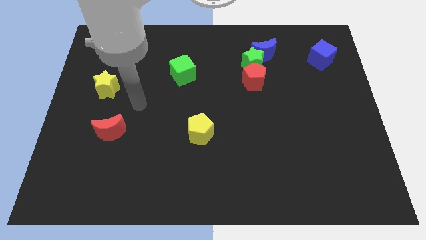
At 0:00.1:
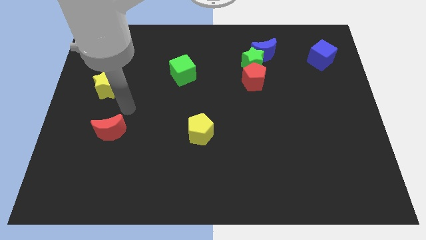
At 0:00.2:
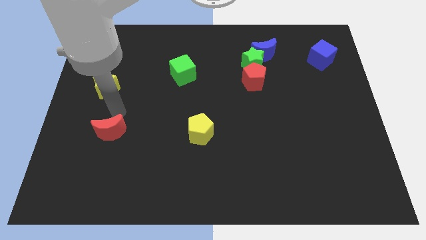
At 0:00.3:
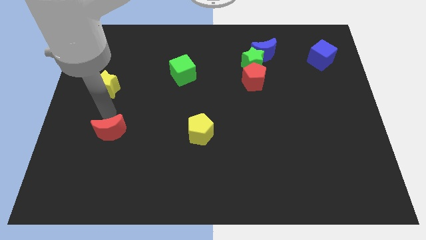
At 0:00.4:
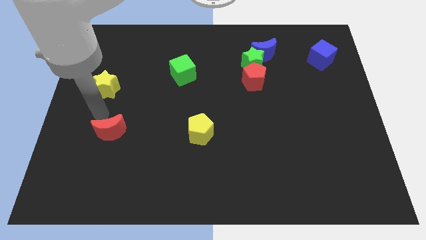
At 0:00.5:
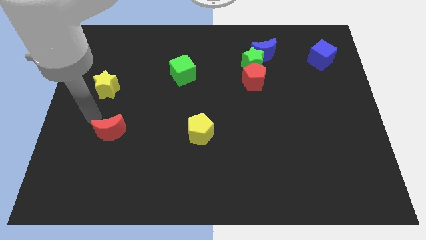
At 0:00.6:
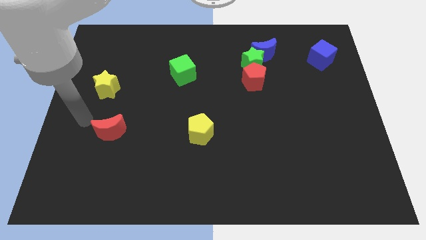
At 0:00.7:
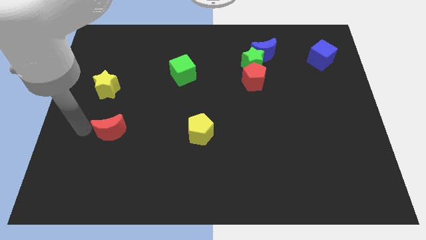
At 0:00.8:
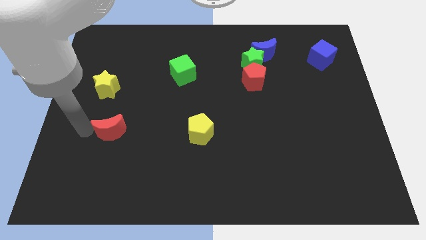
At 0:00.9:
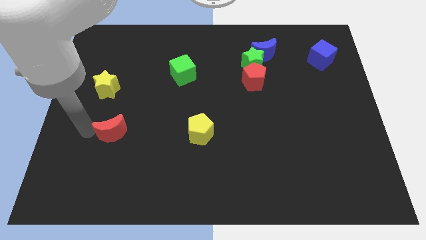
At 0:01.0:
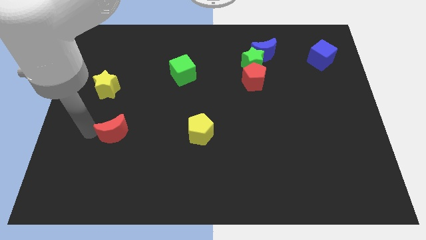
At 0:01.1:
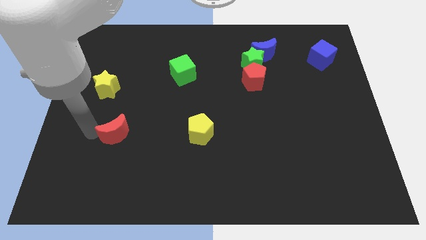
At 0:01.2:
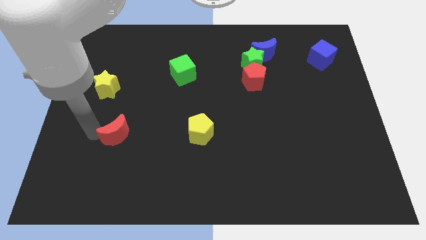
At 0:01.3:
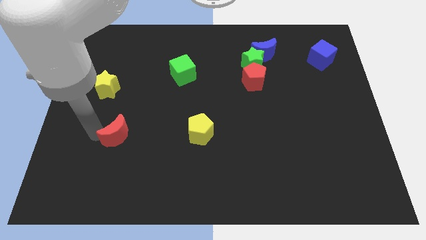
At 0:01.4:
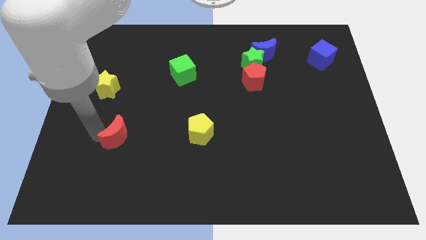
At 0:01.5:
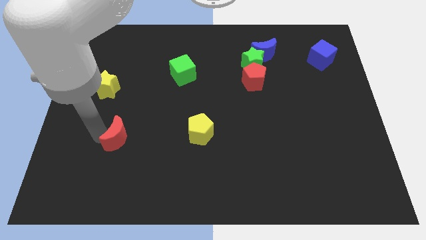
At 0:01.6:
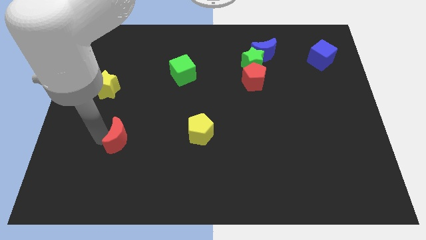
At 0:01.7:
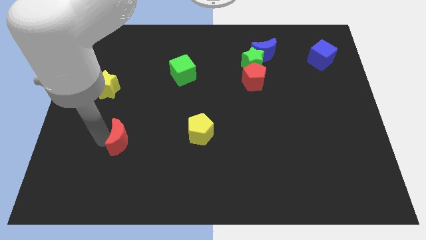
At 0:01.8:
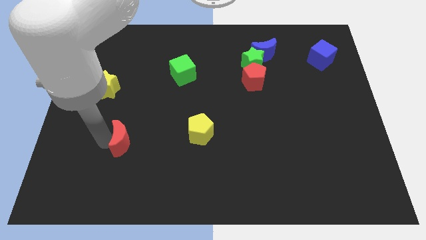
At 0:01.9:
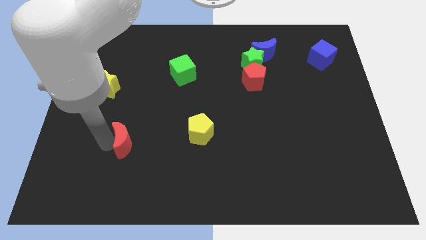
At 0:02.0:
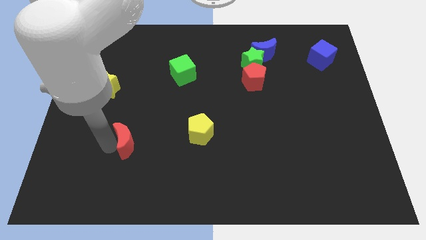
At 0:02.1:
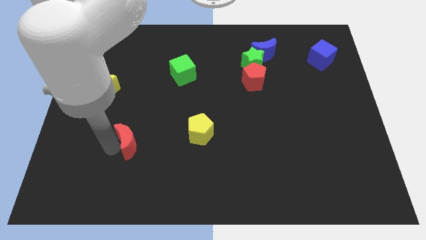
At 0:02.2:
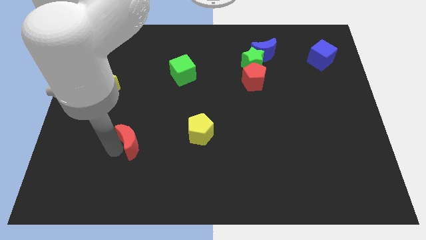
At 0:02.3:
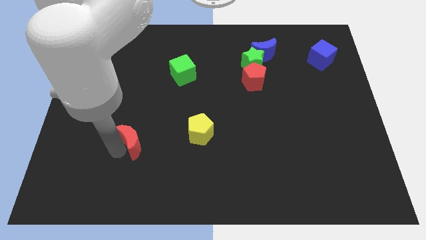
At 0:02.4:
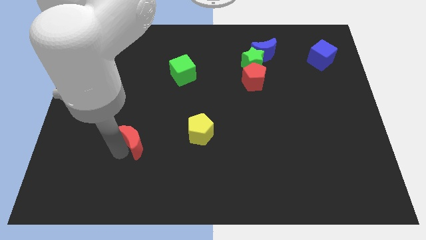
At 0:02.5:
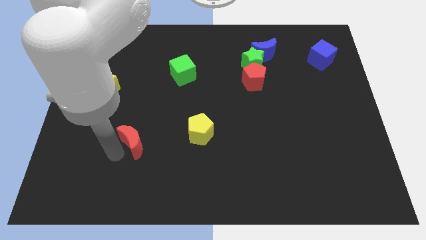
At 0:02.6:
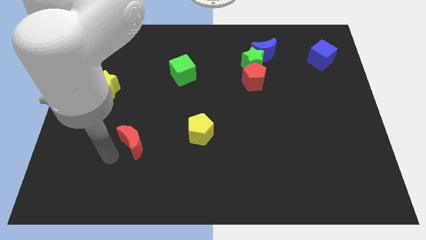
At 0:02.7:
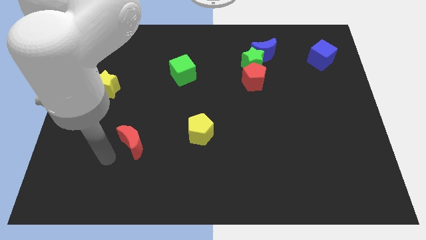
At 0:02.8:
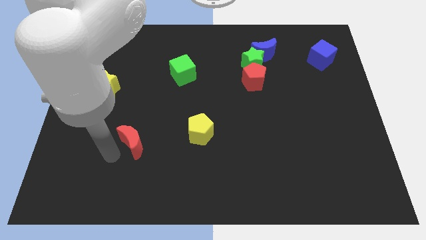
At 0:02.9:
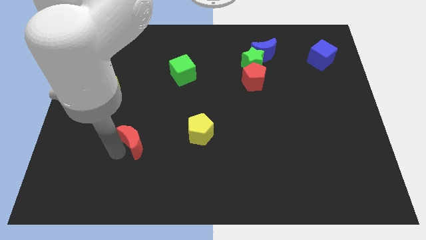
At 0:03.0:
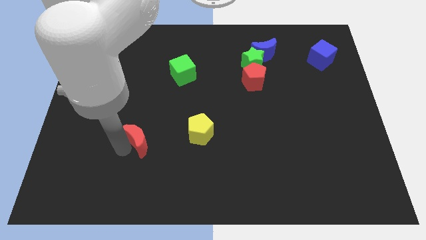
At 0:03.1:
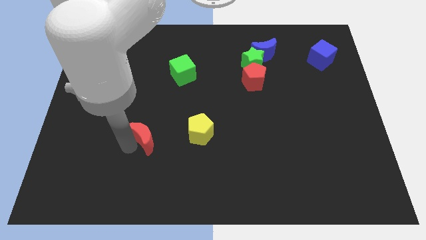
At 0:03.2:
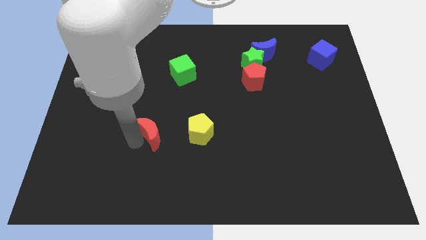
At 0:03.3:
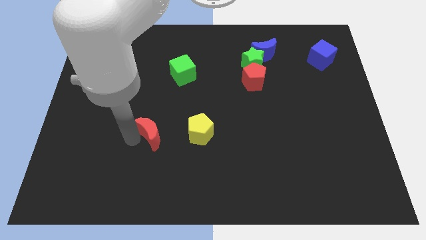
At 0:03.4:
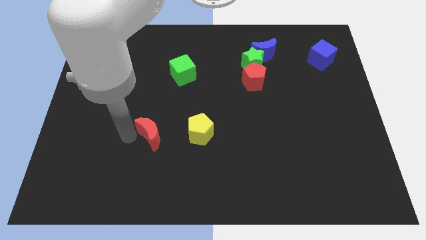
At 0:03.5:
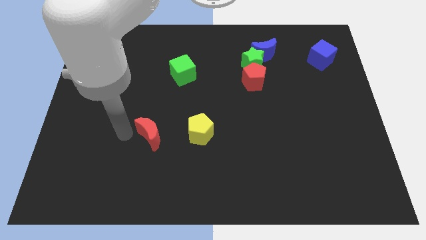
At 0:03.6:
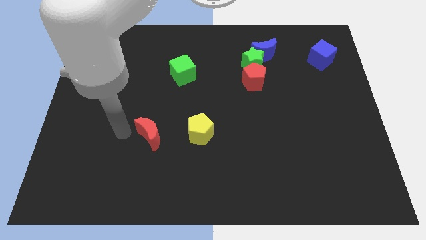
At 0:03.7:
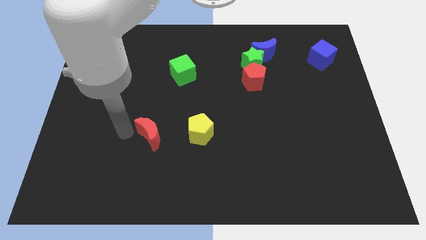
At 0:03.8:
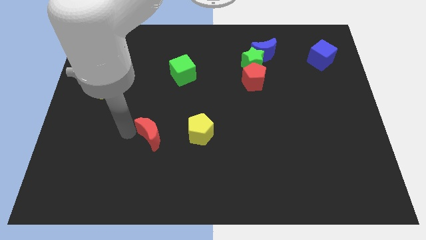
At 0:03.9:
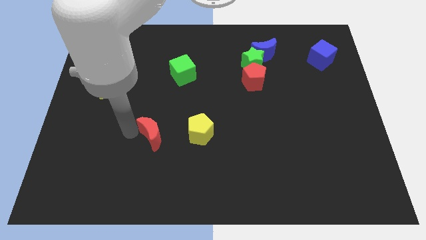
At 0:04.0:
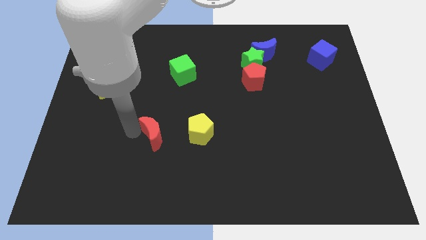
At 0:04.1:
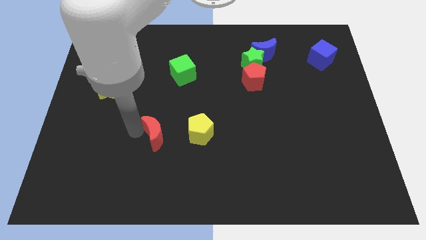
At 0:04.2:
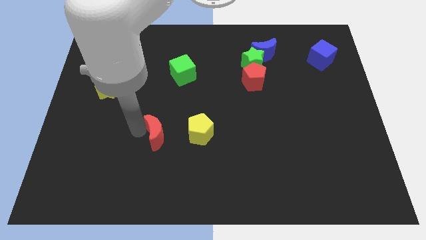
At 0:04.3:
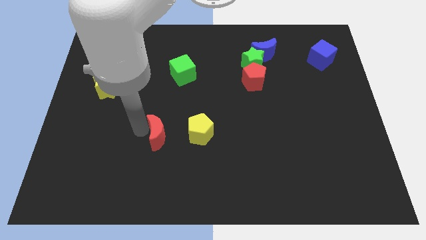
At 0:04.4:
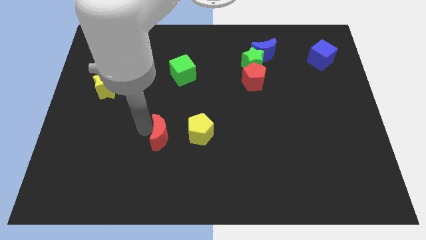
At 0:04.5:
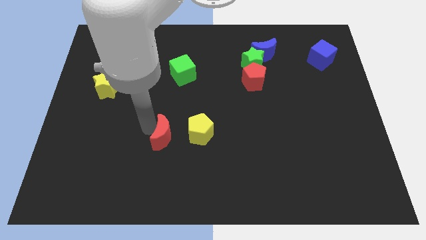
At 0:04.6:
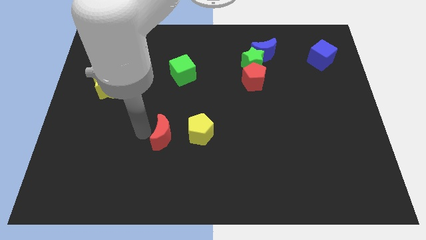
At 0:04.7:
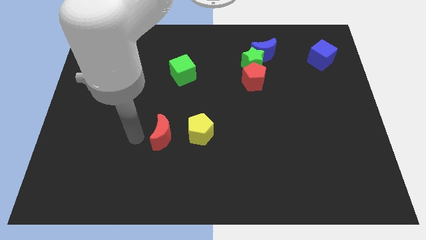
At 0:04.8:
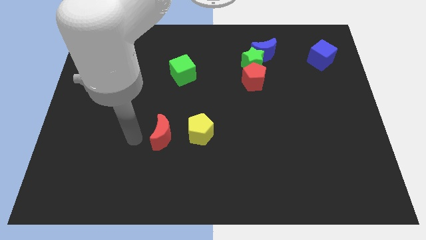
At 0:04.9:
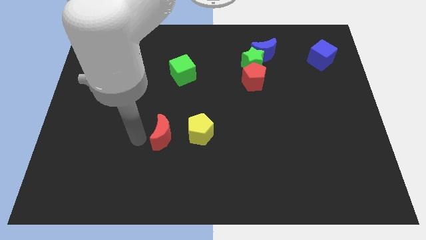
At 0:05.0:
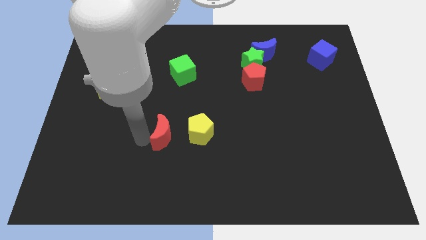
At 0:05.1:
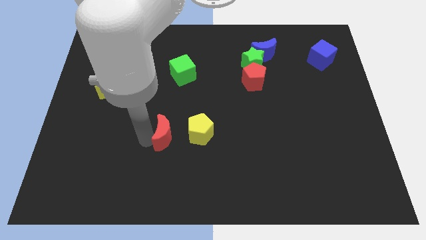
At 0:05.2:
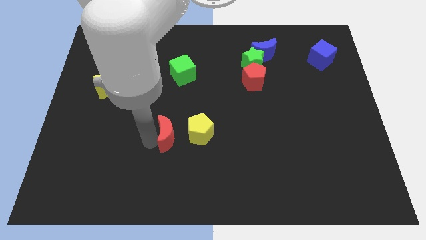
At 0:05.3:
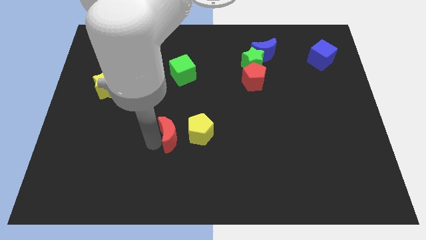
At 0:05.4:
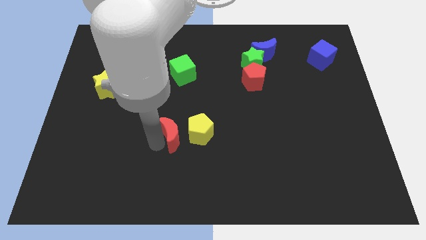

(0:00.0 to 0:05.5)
put the red moon close to the yellow pentagon

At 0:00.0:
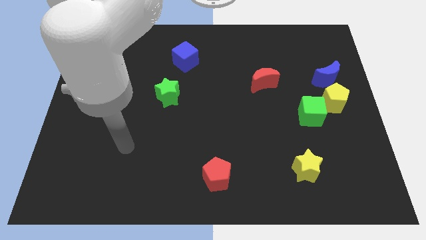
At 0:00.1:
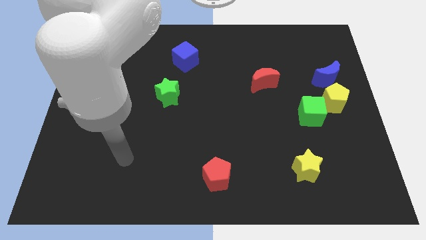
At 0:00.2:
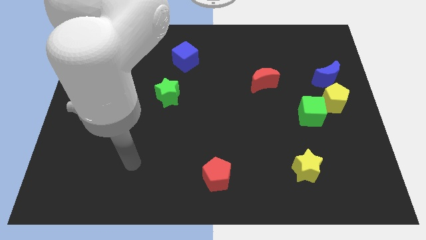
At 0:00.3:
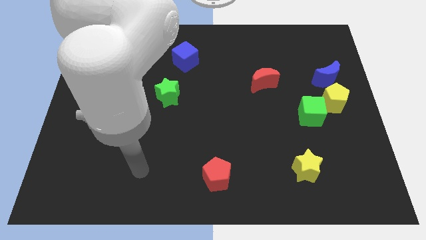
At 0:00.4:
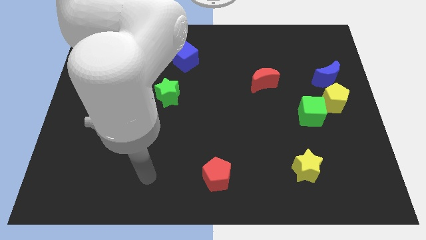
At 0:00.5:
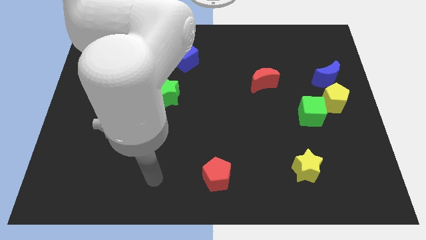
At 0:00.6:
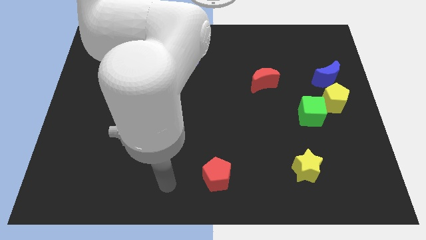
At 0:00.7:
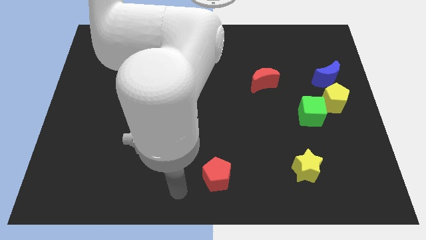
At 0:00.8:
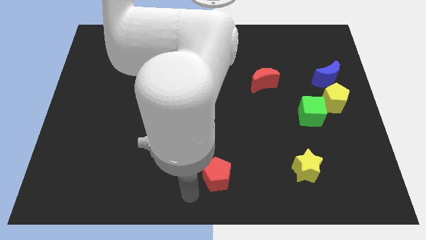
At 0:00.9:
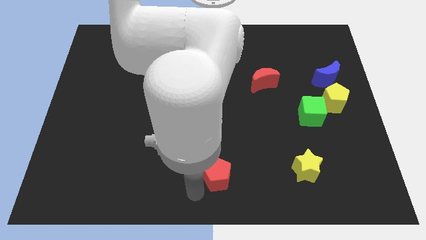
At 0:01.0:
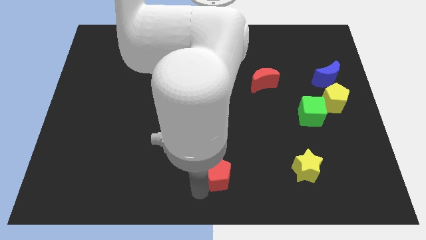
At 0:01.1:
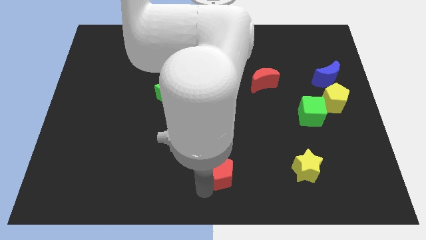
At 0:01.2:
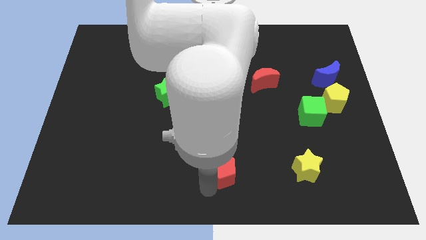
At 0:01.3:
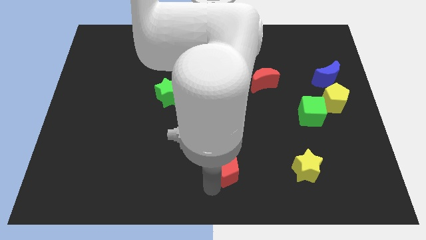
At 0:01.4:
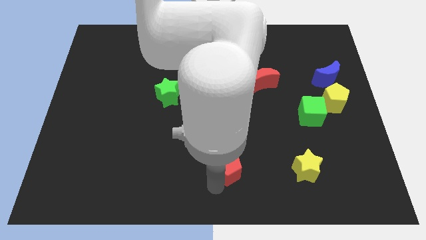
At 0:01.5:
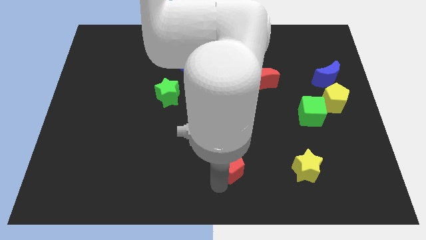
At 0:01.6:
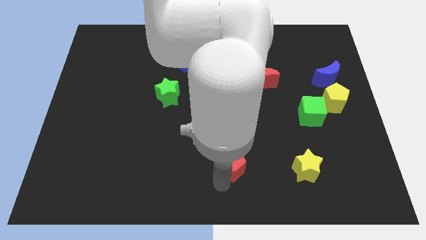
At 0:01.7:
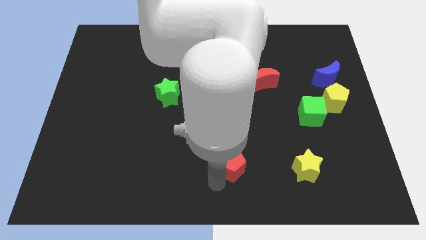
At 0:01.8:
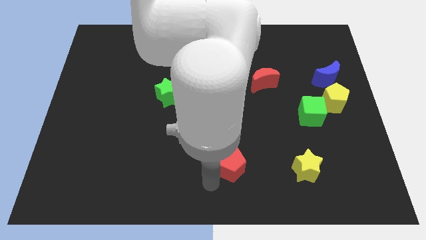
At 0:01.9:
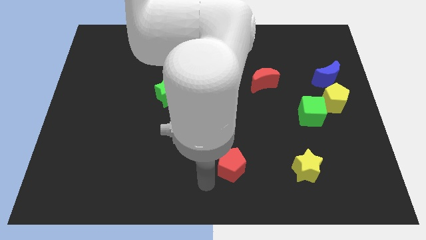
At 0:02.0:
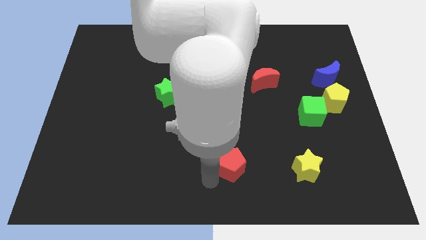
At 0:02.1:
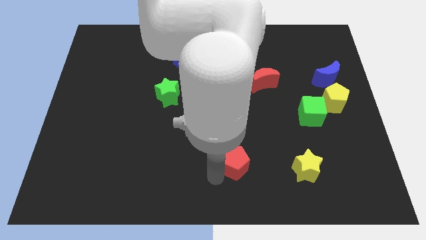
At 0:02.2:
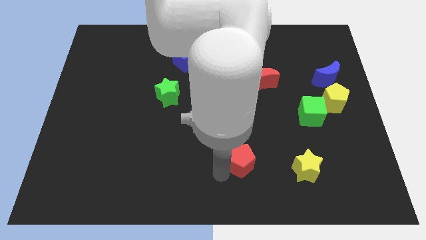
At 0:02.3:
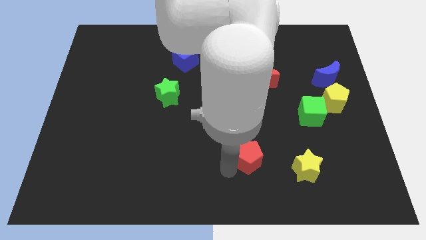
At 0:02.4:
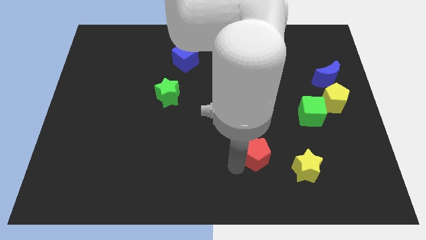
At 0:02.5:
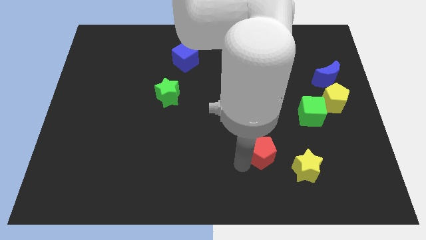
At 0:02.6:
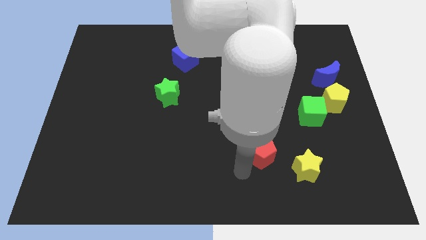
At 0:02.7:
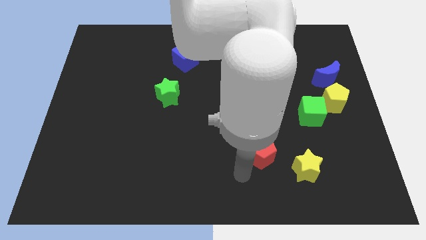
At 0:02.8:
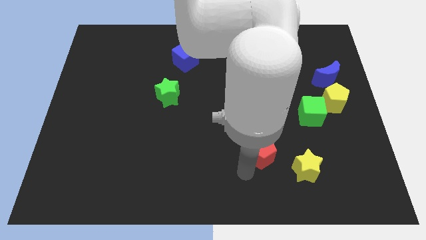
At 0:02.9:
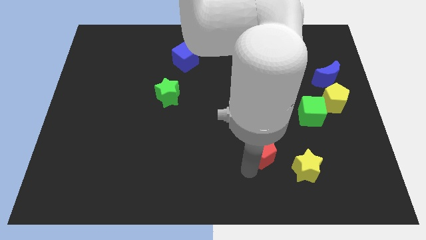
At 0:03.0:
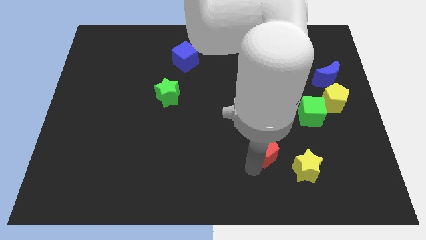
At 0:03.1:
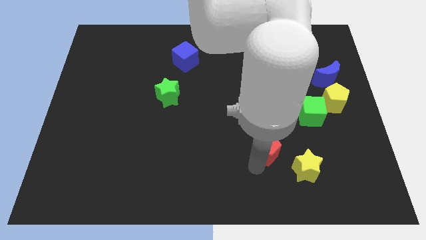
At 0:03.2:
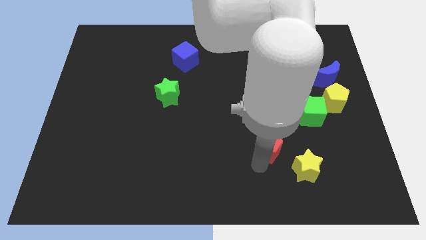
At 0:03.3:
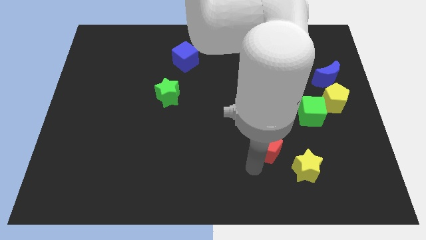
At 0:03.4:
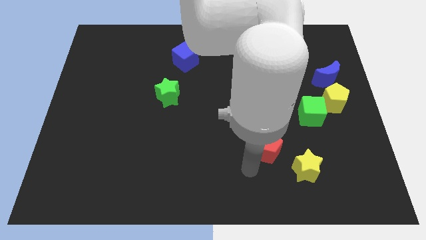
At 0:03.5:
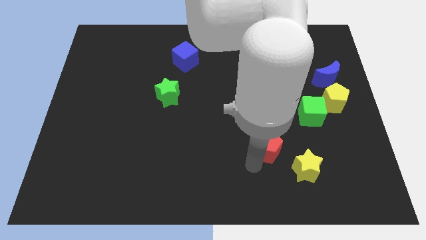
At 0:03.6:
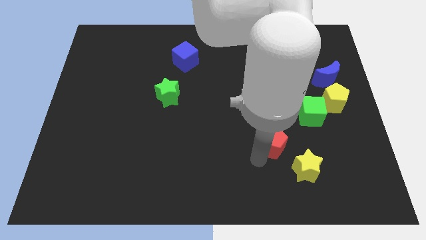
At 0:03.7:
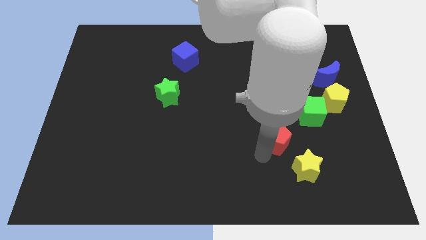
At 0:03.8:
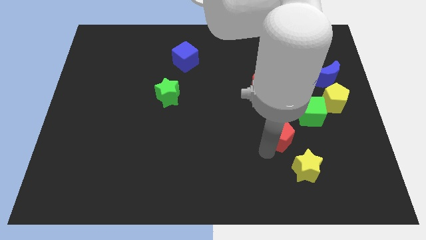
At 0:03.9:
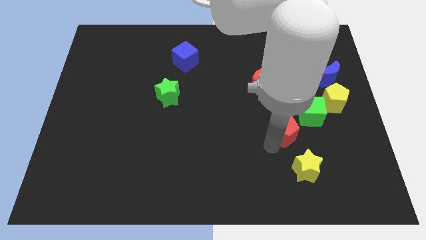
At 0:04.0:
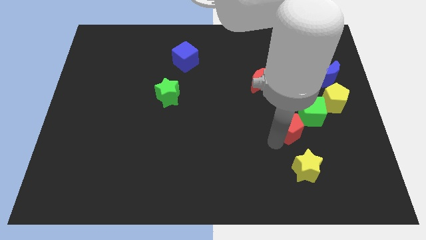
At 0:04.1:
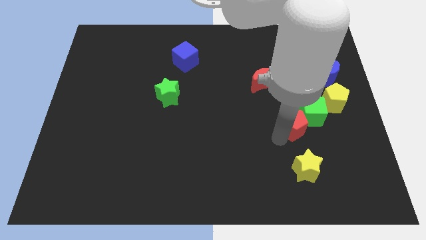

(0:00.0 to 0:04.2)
move the red pentagon to the green cube
